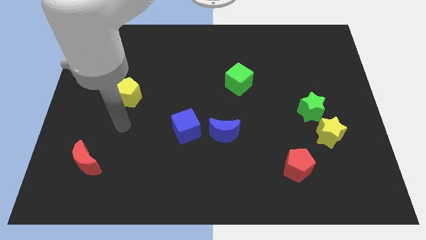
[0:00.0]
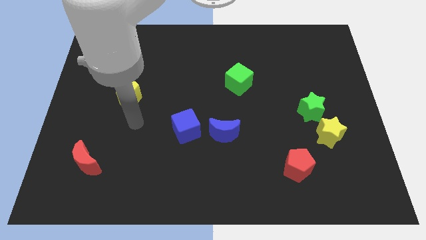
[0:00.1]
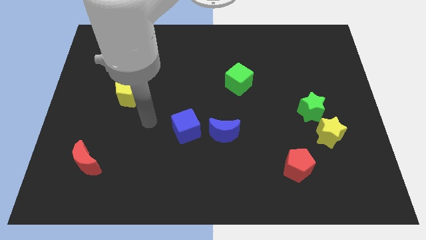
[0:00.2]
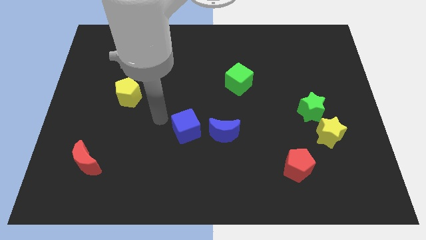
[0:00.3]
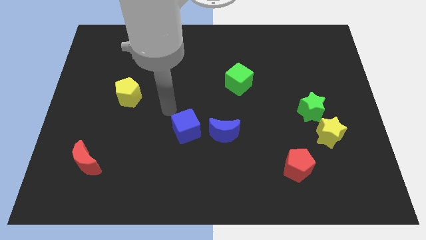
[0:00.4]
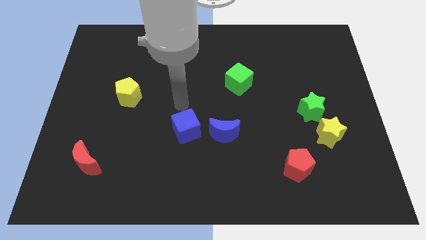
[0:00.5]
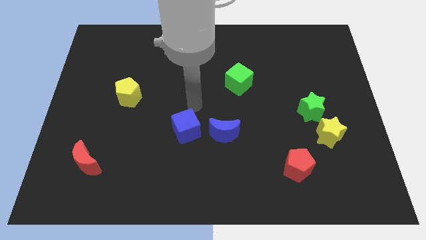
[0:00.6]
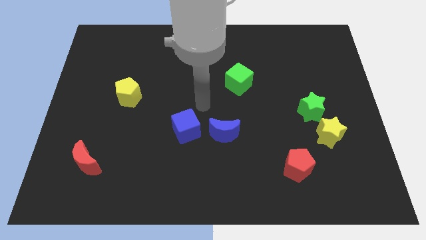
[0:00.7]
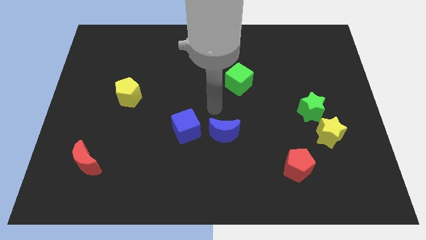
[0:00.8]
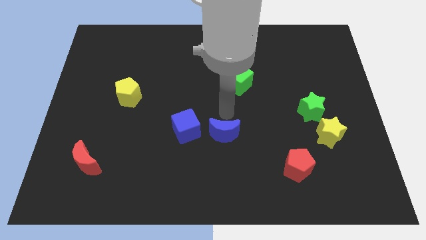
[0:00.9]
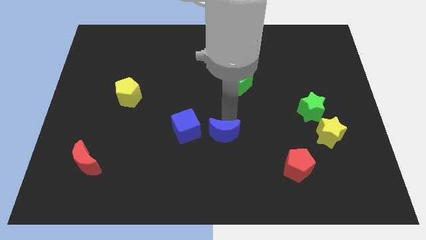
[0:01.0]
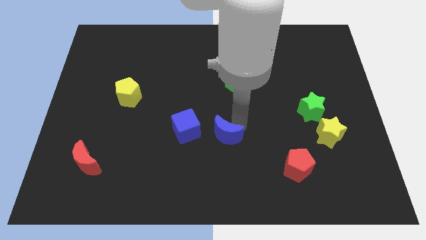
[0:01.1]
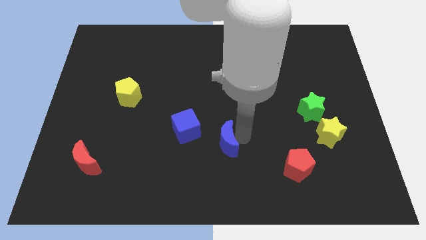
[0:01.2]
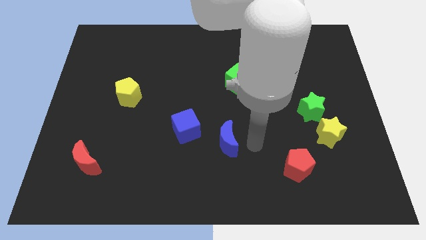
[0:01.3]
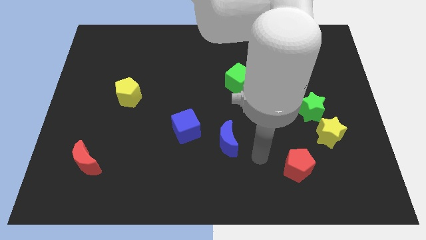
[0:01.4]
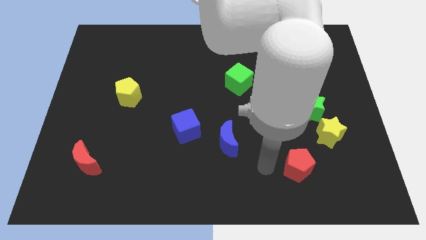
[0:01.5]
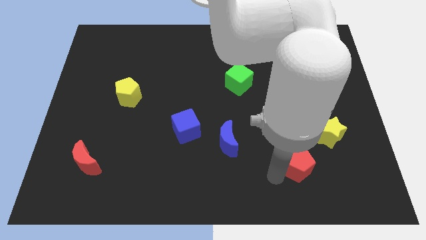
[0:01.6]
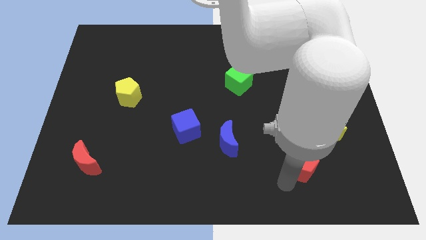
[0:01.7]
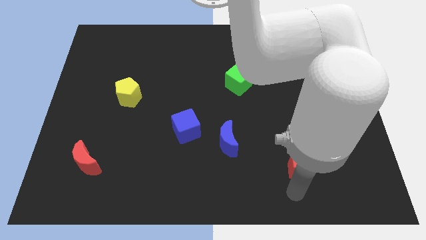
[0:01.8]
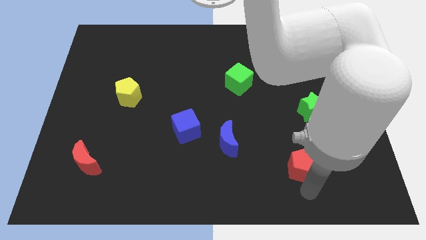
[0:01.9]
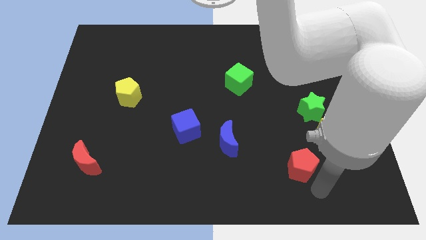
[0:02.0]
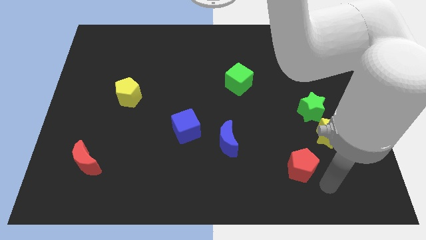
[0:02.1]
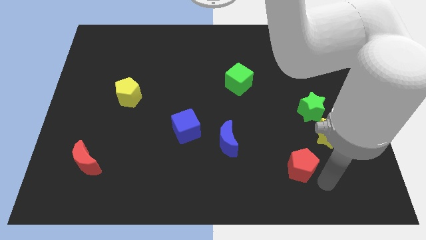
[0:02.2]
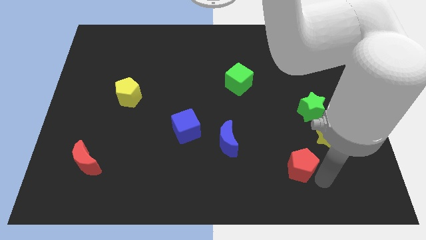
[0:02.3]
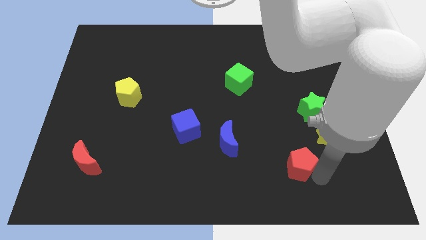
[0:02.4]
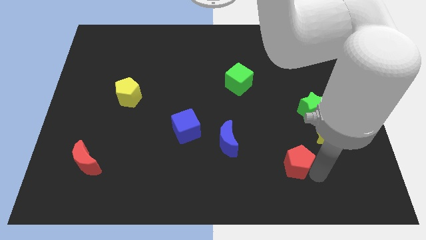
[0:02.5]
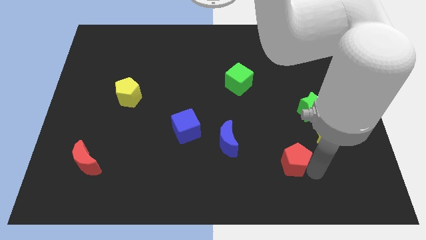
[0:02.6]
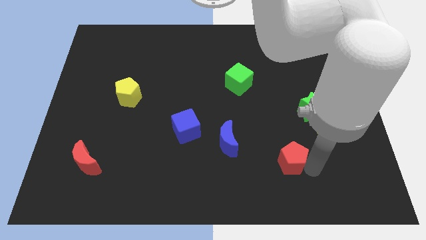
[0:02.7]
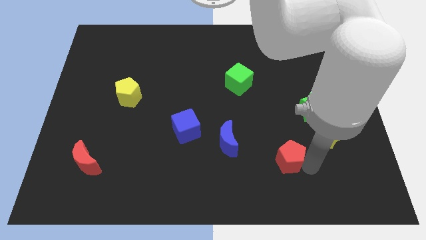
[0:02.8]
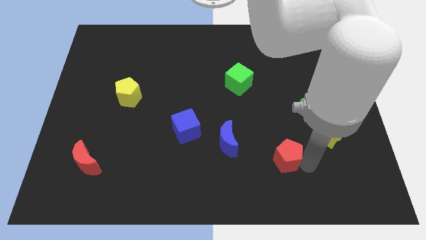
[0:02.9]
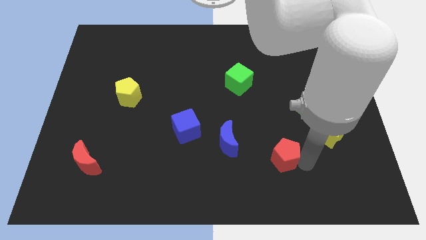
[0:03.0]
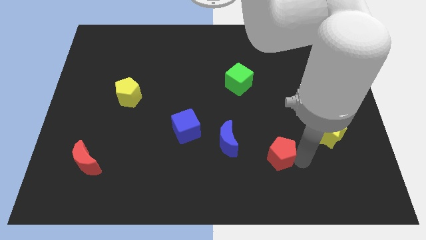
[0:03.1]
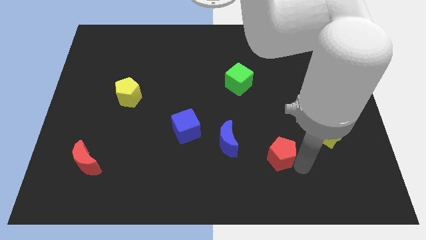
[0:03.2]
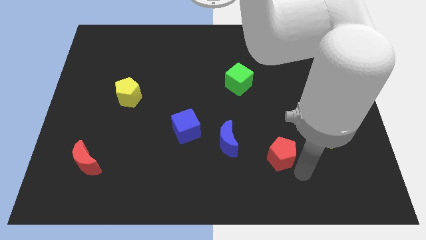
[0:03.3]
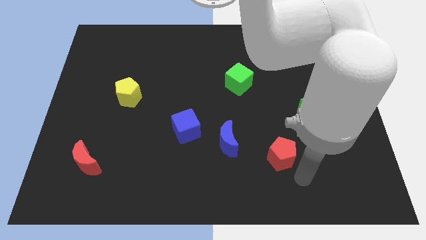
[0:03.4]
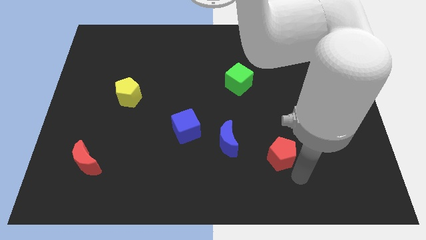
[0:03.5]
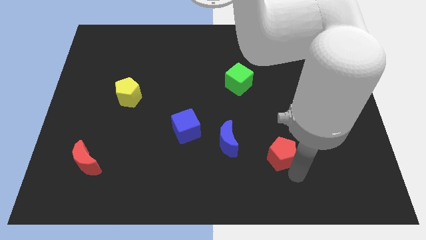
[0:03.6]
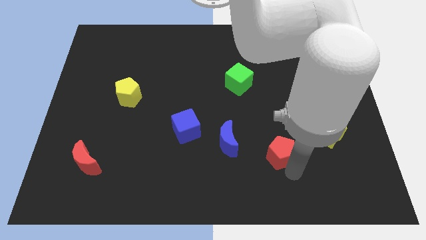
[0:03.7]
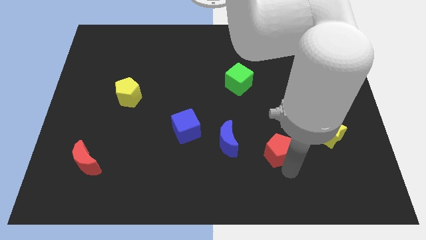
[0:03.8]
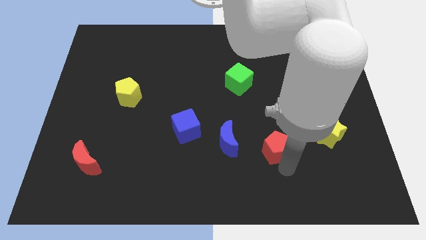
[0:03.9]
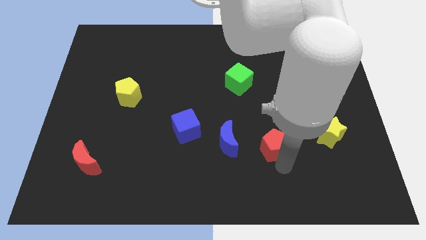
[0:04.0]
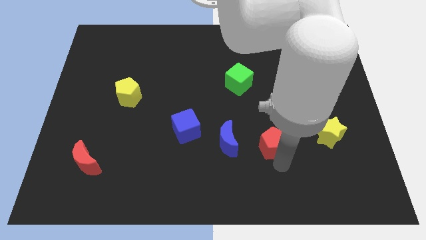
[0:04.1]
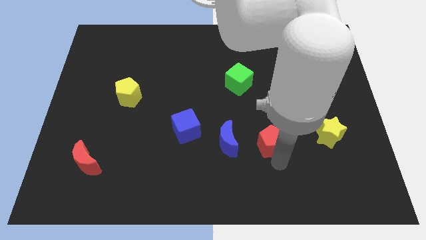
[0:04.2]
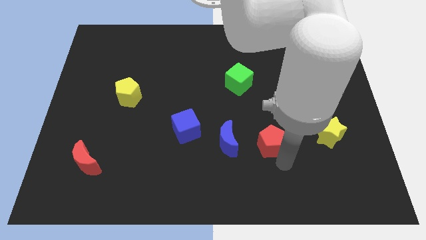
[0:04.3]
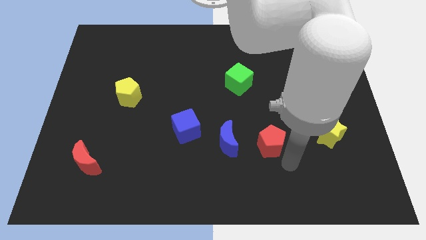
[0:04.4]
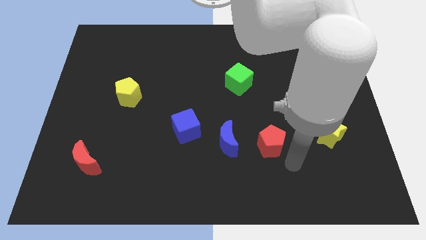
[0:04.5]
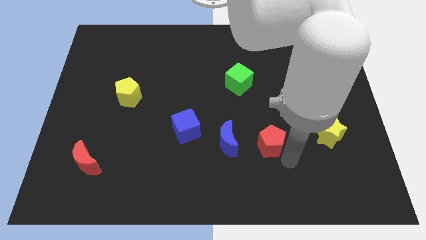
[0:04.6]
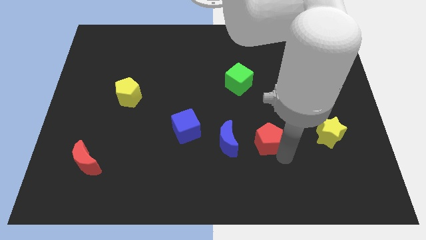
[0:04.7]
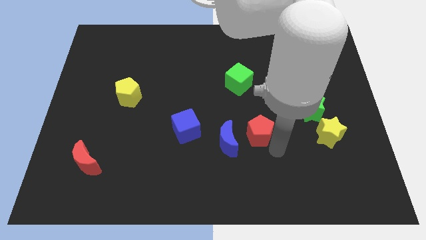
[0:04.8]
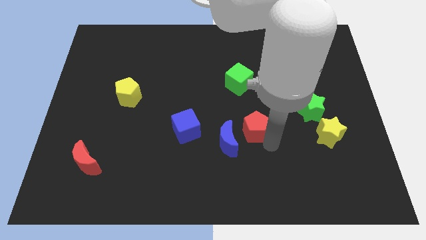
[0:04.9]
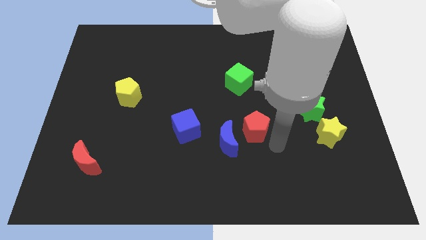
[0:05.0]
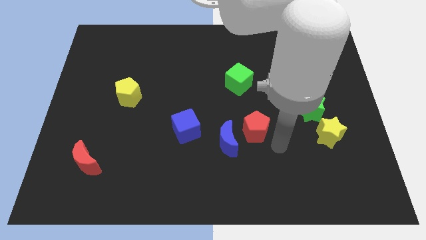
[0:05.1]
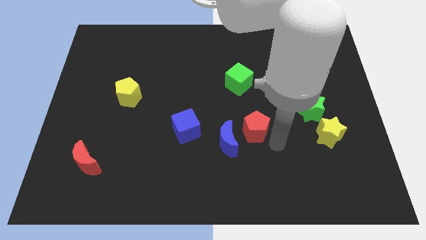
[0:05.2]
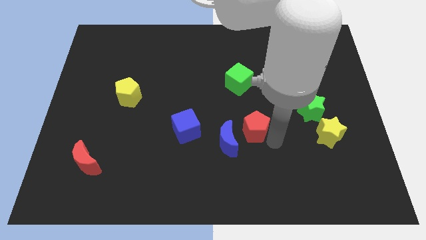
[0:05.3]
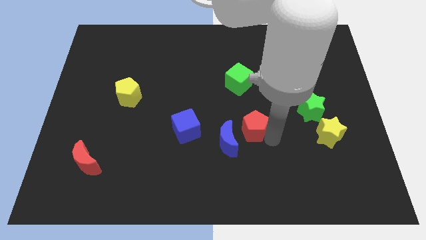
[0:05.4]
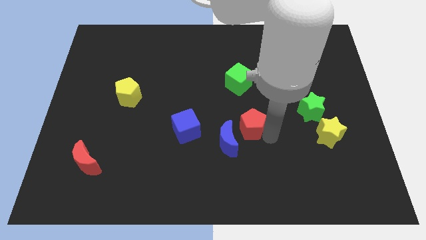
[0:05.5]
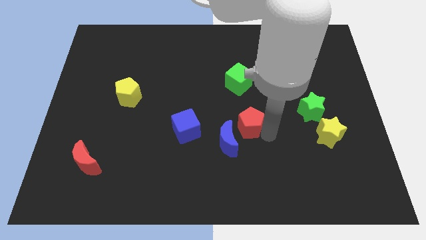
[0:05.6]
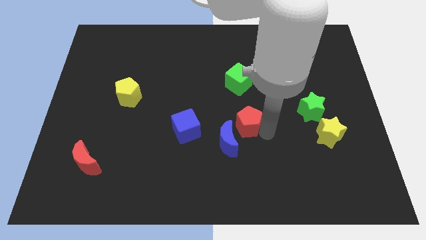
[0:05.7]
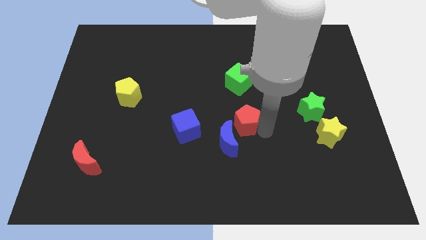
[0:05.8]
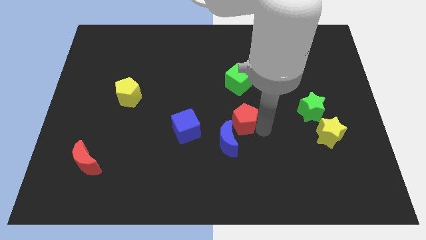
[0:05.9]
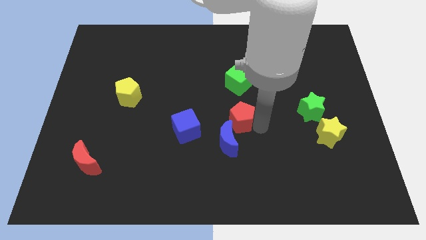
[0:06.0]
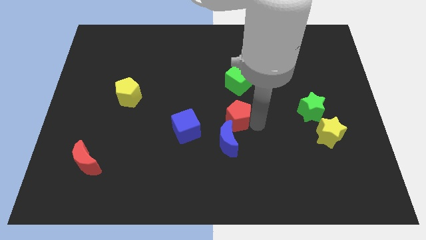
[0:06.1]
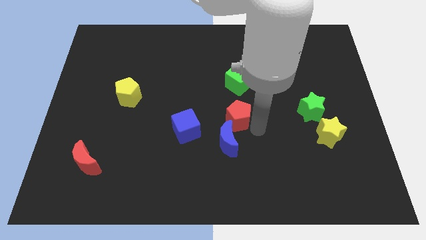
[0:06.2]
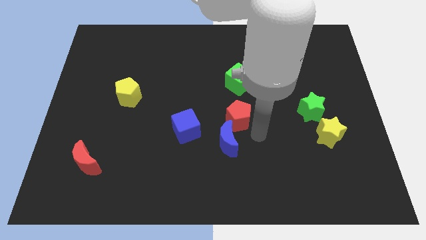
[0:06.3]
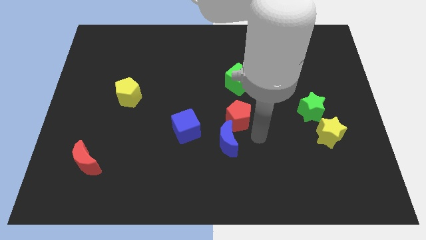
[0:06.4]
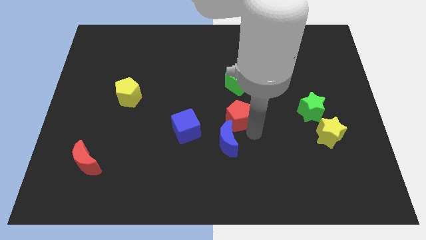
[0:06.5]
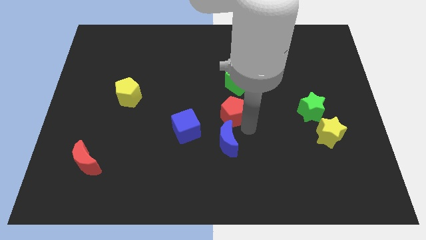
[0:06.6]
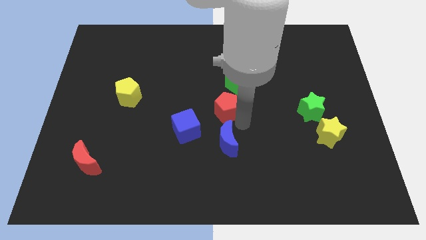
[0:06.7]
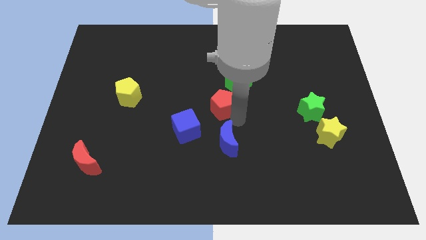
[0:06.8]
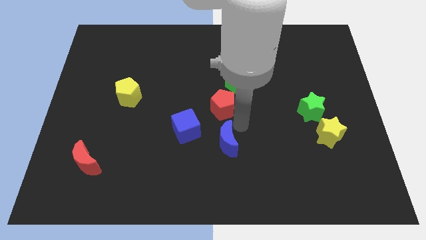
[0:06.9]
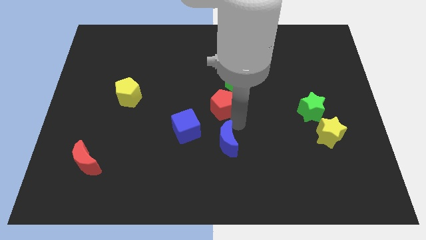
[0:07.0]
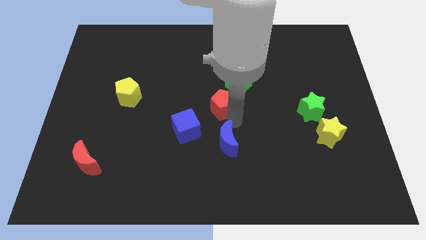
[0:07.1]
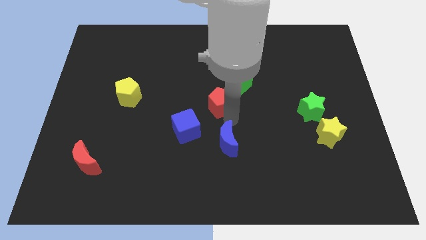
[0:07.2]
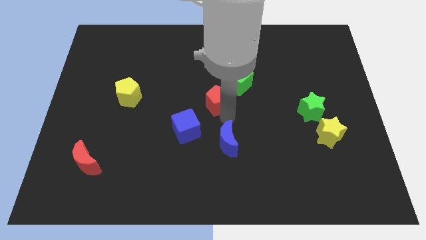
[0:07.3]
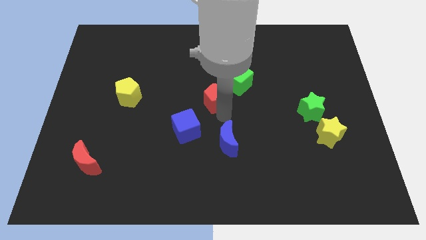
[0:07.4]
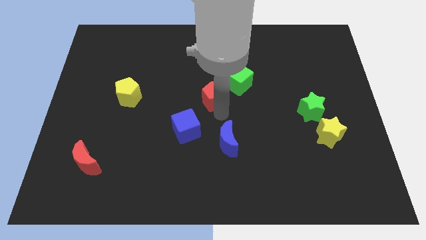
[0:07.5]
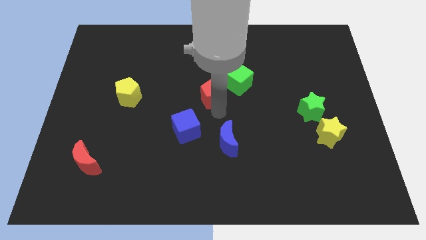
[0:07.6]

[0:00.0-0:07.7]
move the red pentagon just left of the green cube
